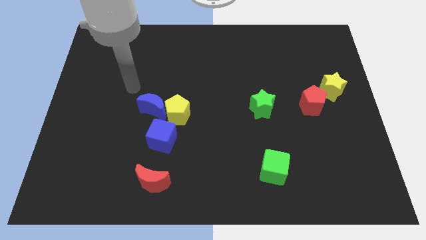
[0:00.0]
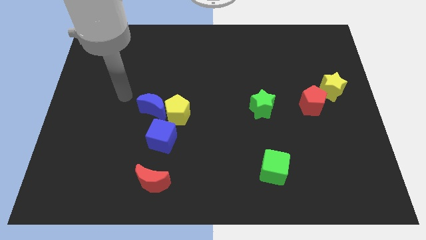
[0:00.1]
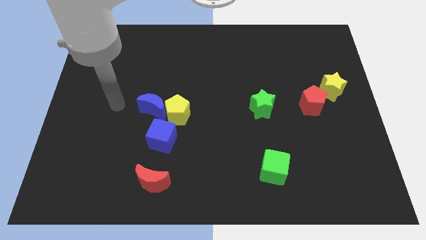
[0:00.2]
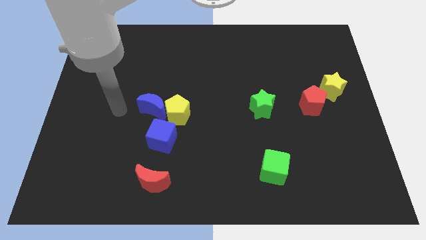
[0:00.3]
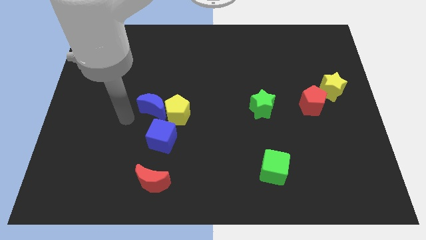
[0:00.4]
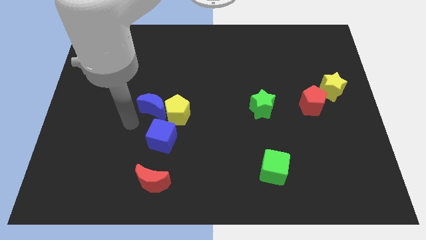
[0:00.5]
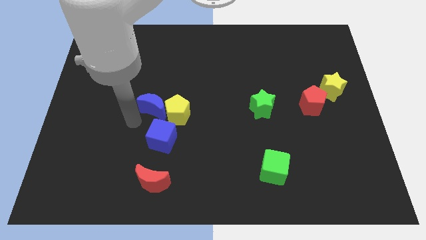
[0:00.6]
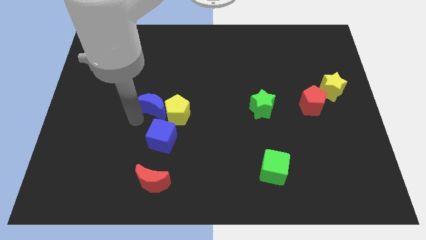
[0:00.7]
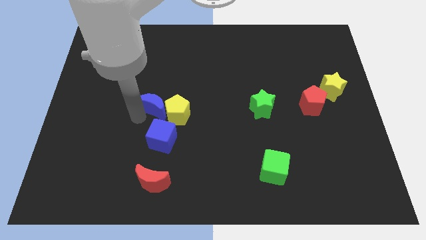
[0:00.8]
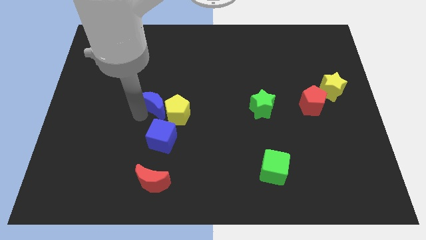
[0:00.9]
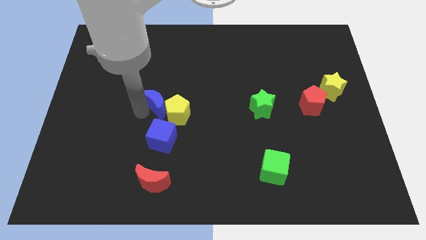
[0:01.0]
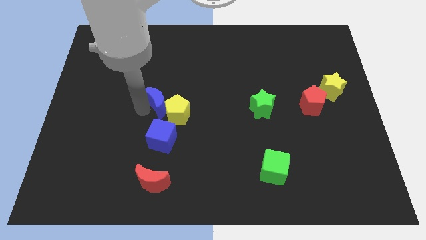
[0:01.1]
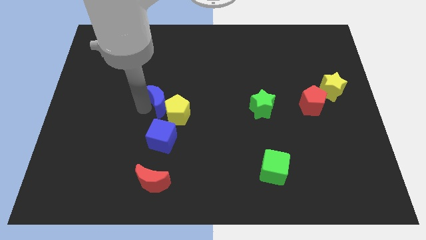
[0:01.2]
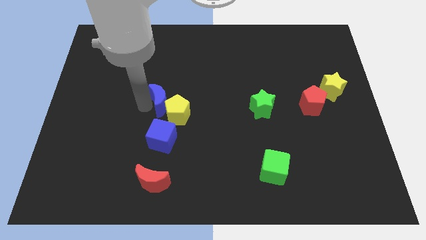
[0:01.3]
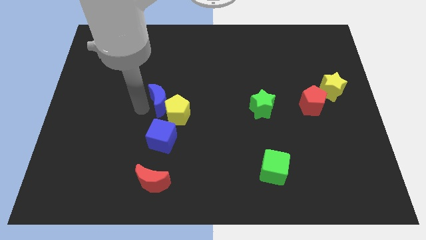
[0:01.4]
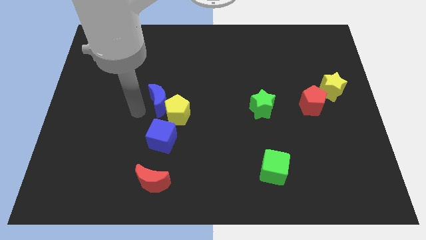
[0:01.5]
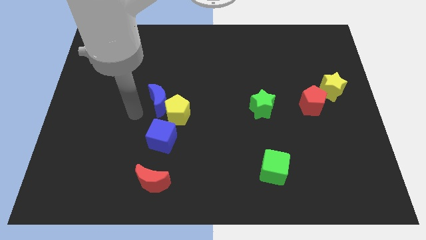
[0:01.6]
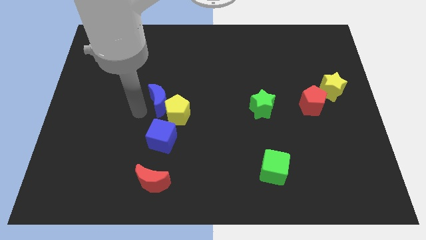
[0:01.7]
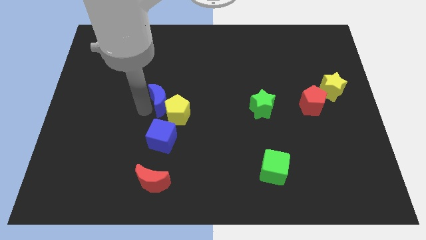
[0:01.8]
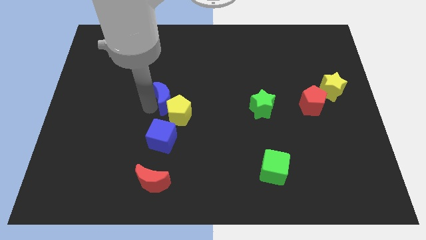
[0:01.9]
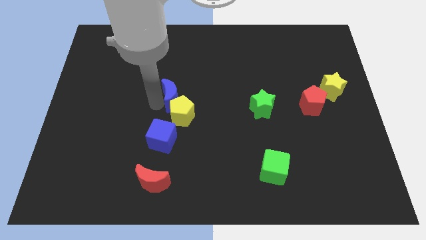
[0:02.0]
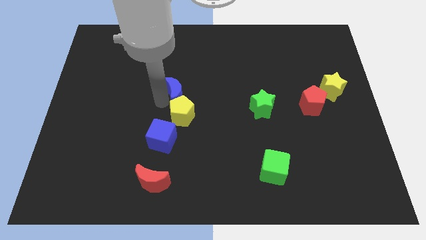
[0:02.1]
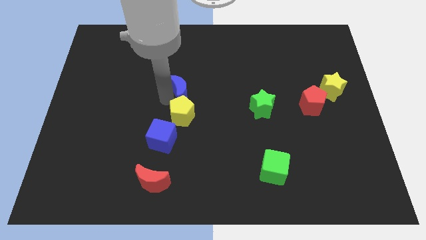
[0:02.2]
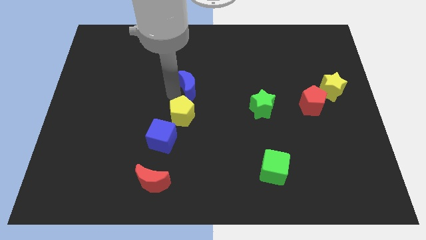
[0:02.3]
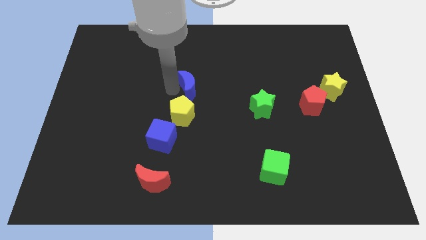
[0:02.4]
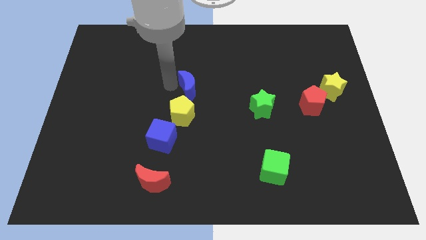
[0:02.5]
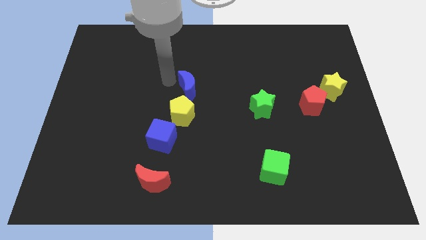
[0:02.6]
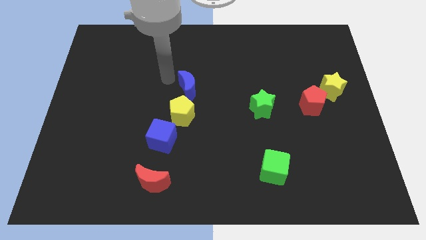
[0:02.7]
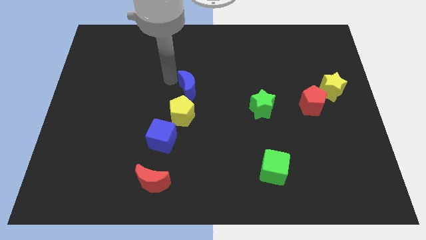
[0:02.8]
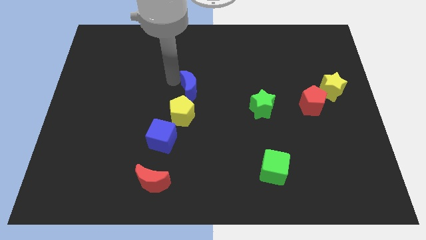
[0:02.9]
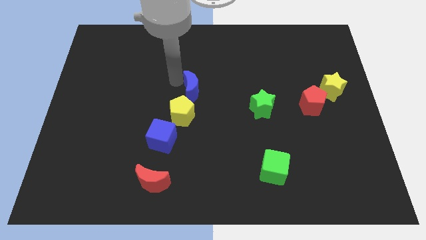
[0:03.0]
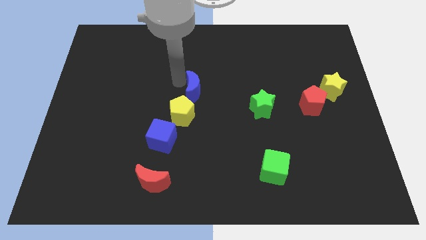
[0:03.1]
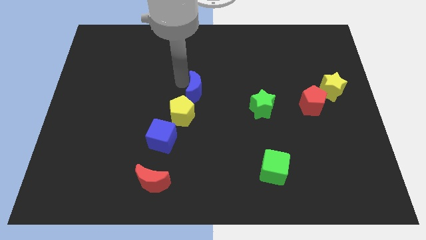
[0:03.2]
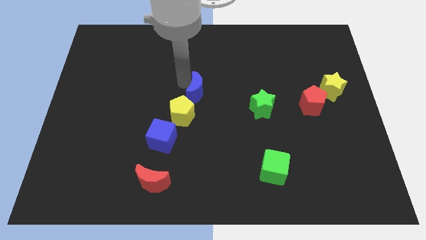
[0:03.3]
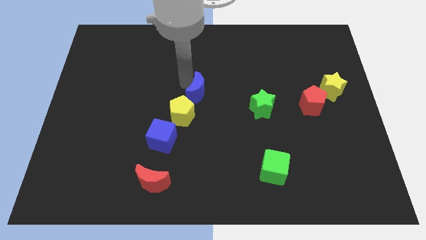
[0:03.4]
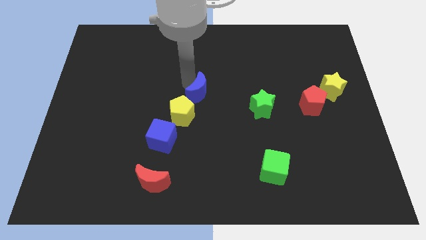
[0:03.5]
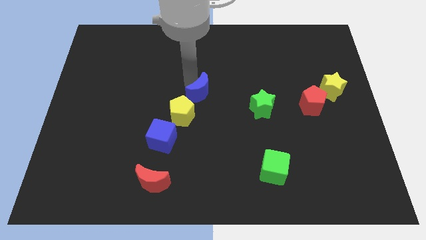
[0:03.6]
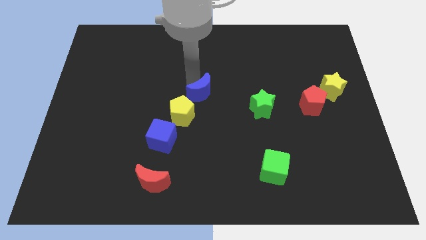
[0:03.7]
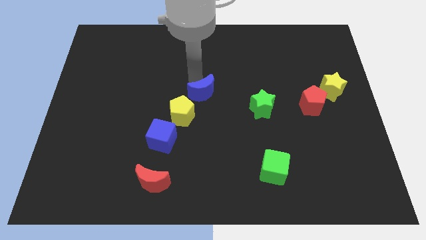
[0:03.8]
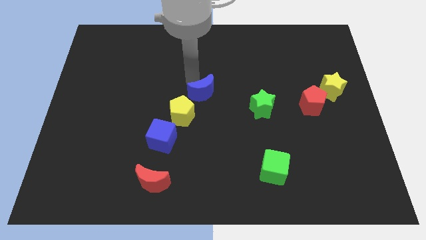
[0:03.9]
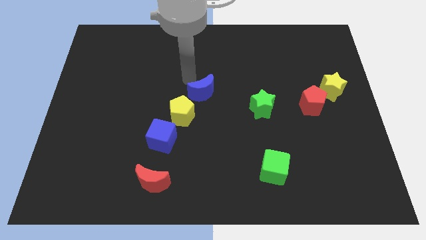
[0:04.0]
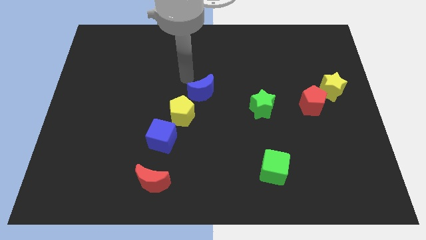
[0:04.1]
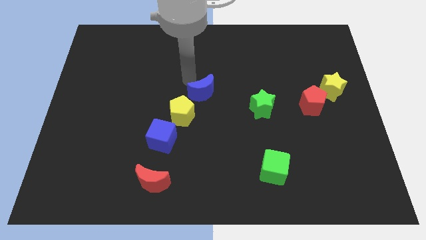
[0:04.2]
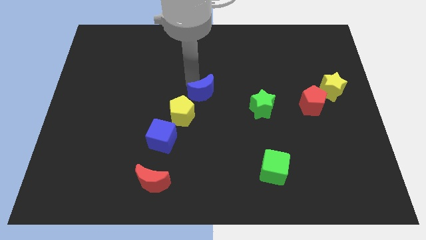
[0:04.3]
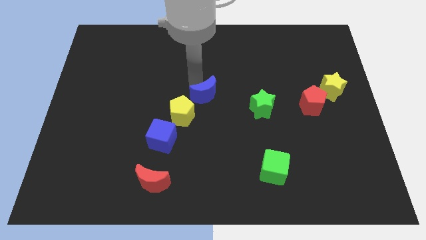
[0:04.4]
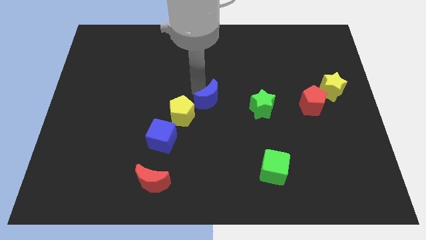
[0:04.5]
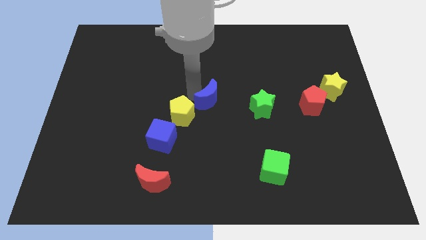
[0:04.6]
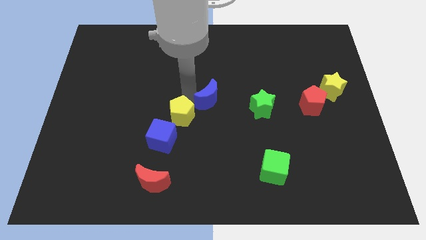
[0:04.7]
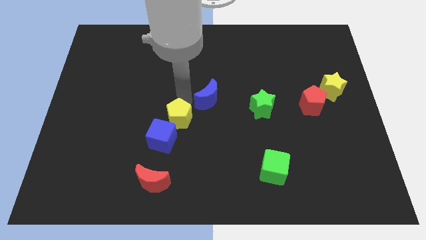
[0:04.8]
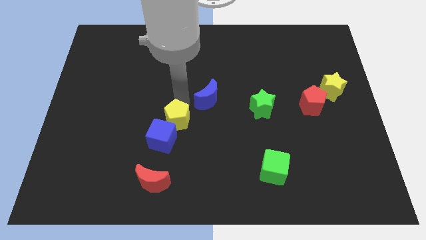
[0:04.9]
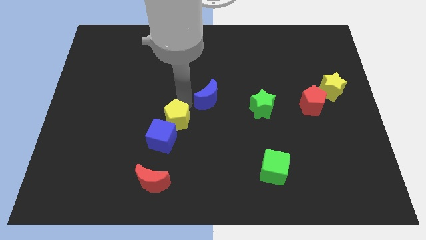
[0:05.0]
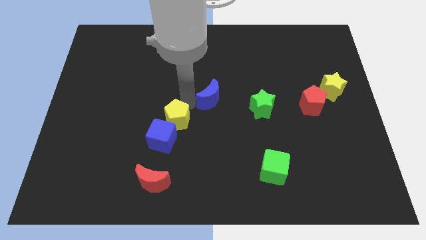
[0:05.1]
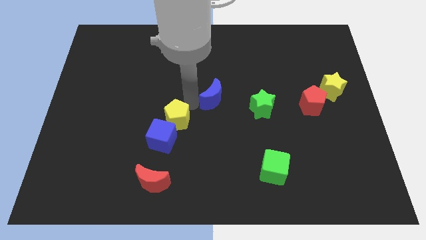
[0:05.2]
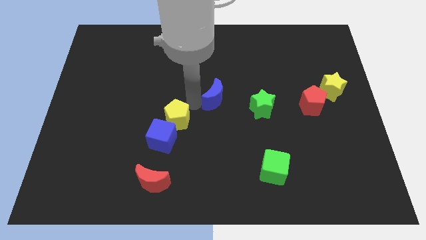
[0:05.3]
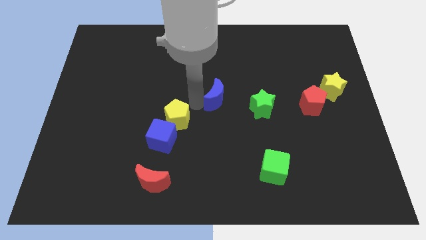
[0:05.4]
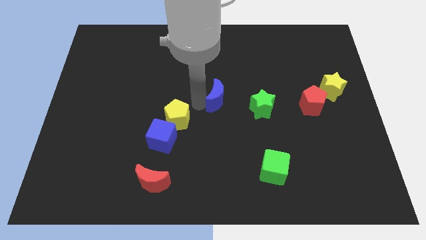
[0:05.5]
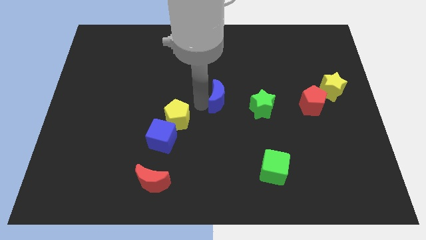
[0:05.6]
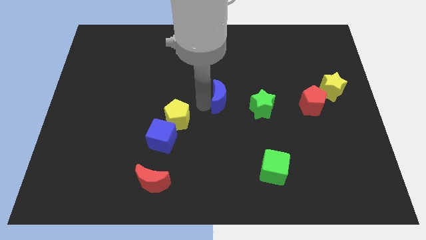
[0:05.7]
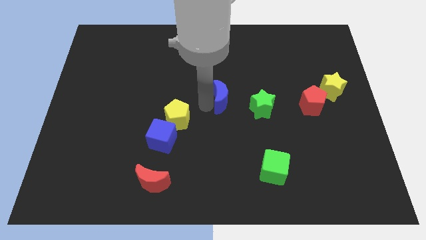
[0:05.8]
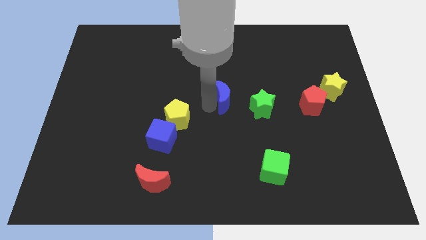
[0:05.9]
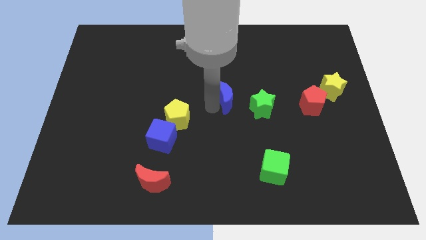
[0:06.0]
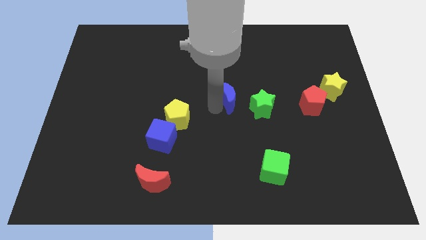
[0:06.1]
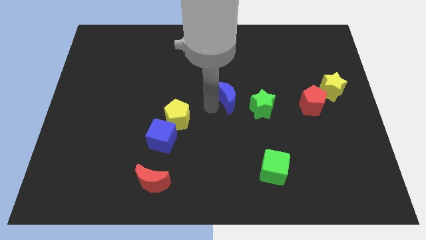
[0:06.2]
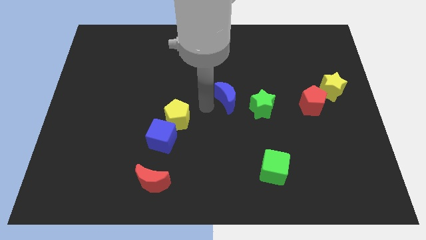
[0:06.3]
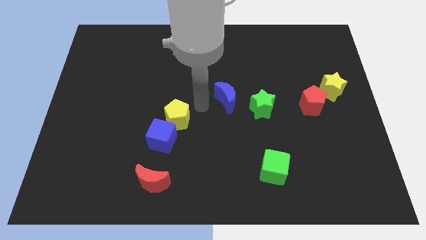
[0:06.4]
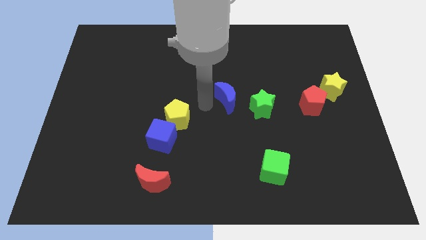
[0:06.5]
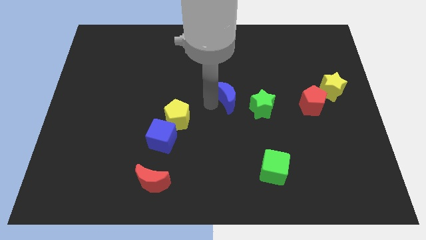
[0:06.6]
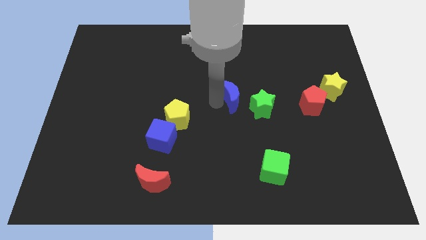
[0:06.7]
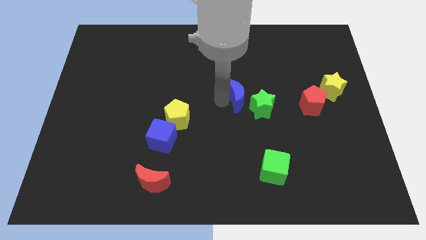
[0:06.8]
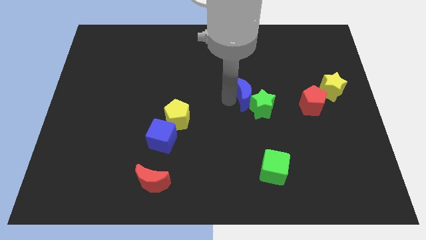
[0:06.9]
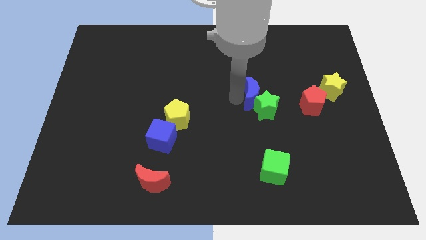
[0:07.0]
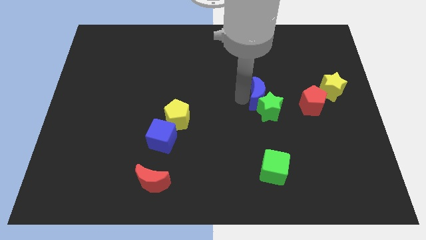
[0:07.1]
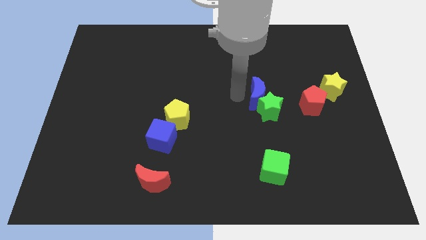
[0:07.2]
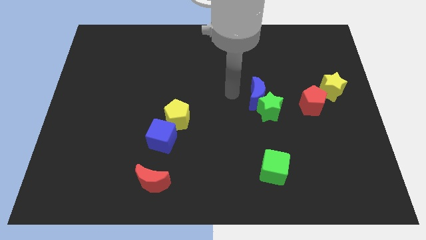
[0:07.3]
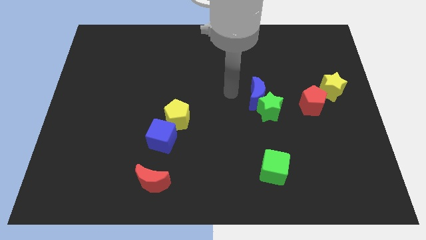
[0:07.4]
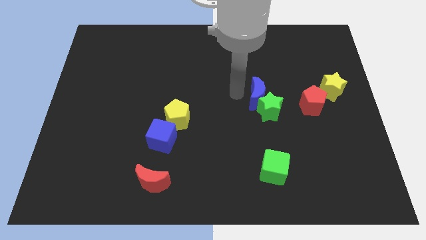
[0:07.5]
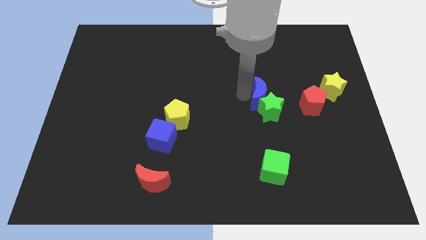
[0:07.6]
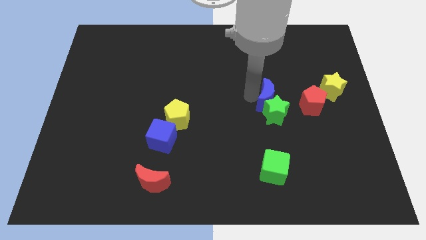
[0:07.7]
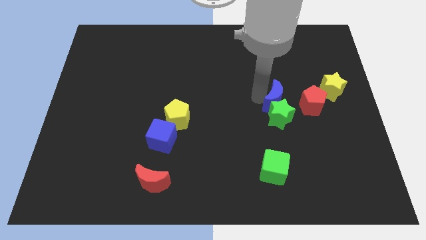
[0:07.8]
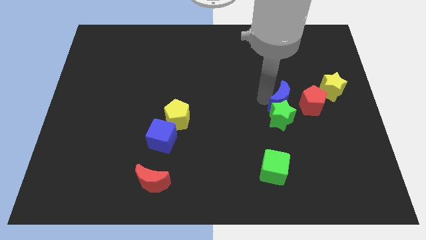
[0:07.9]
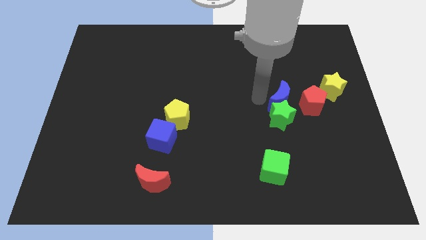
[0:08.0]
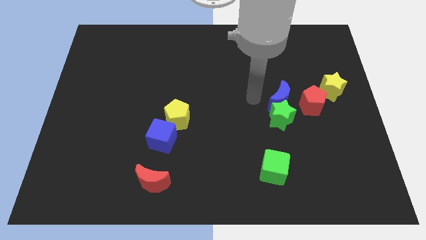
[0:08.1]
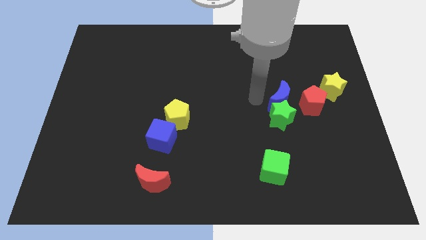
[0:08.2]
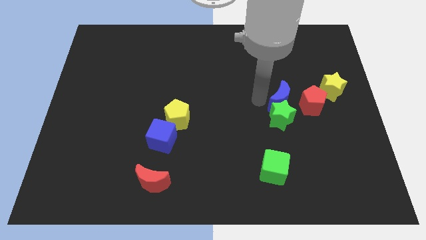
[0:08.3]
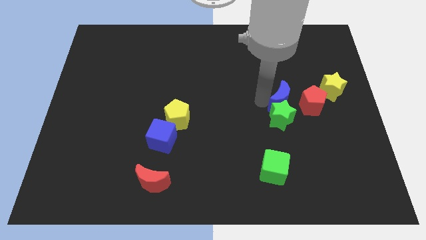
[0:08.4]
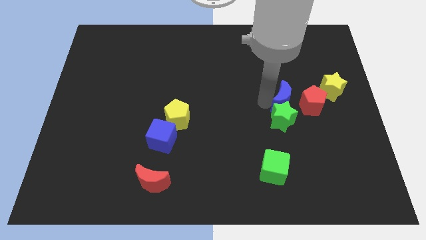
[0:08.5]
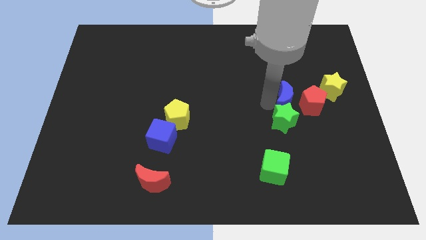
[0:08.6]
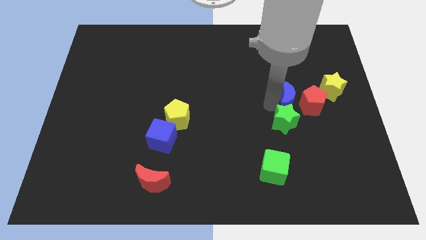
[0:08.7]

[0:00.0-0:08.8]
push the blue moon close to the red pentagon
